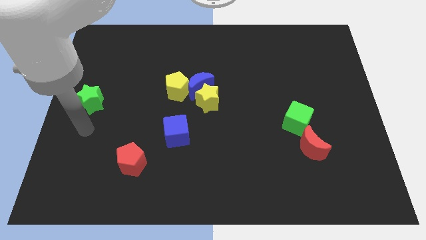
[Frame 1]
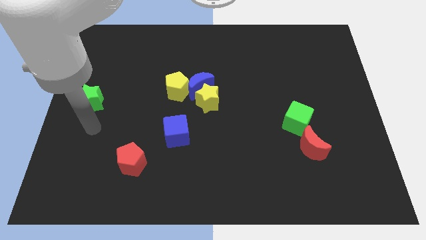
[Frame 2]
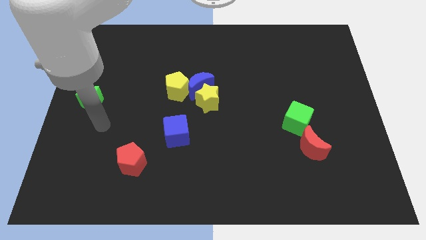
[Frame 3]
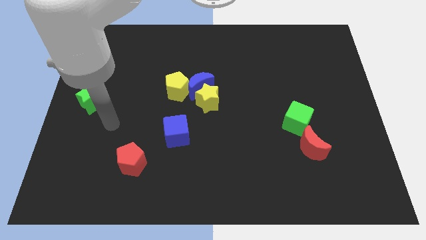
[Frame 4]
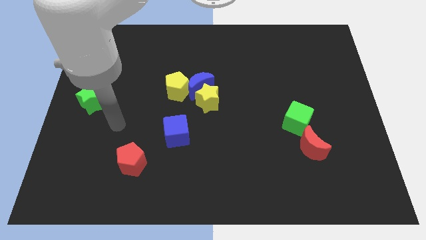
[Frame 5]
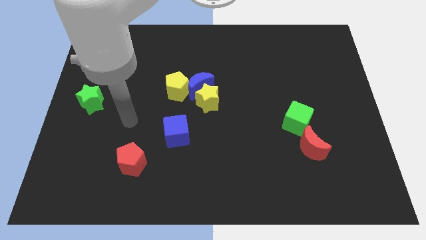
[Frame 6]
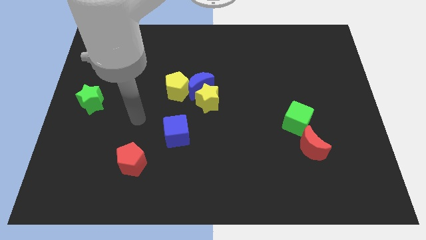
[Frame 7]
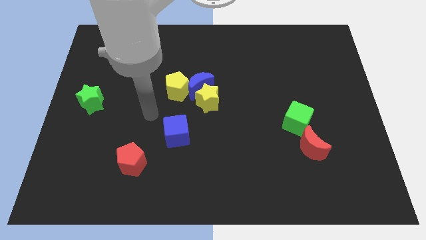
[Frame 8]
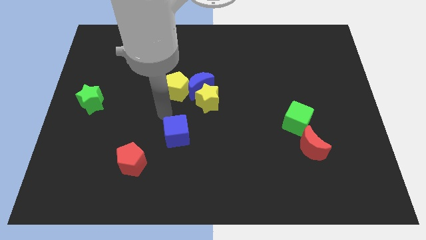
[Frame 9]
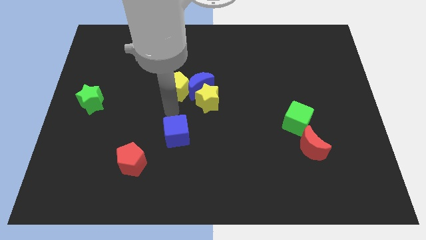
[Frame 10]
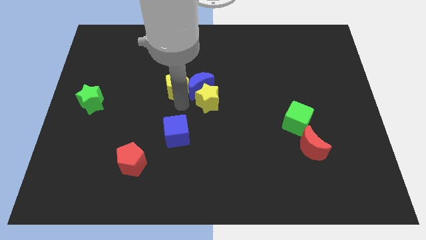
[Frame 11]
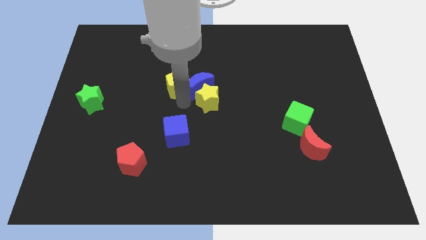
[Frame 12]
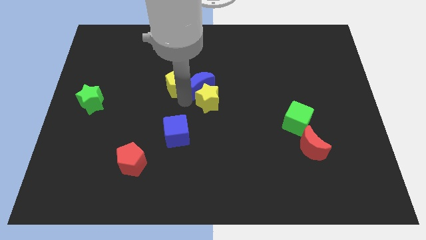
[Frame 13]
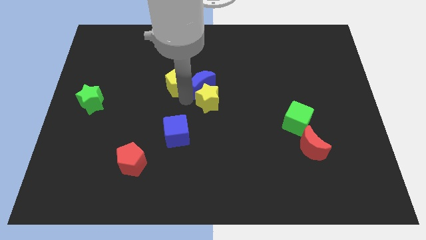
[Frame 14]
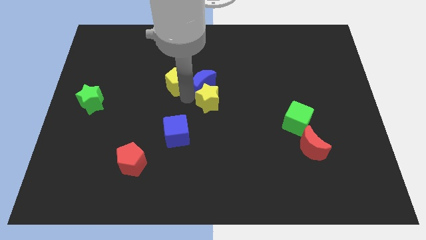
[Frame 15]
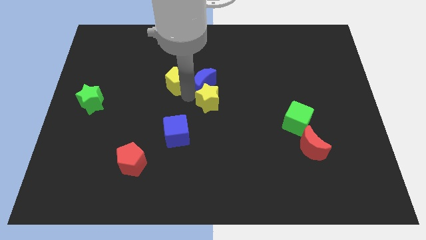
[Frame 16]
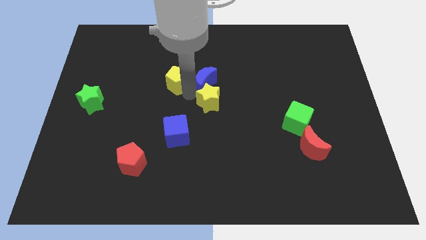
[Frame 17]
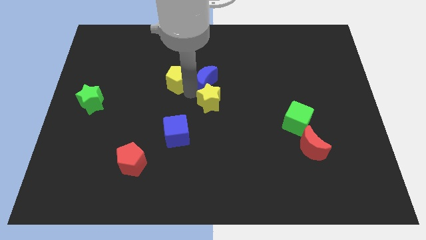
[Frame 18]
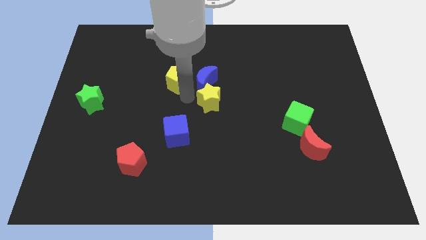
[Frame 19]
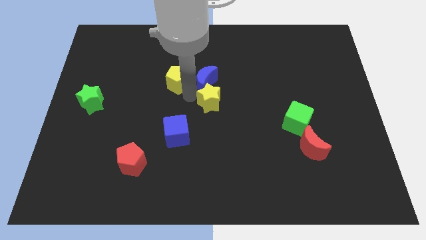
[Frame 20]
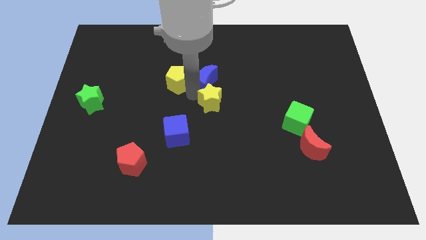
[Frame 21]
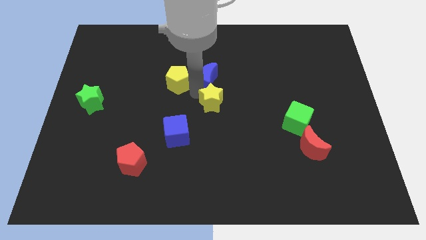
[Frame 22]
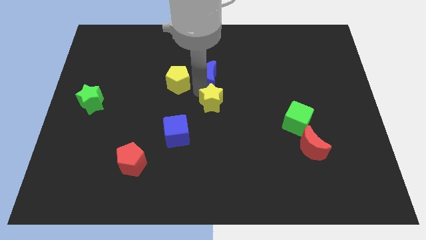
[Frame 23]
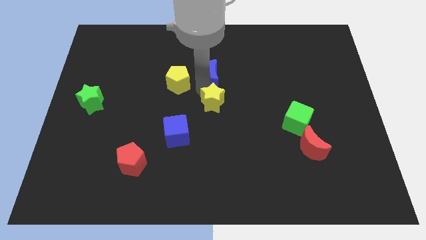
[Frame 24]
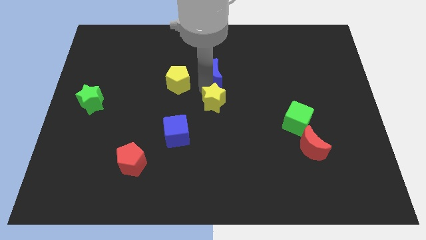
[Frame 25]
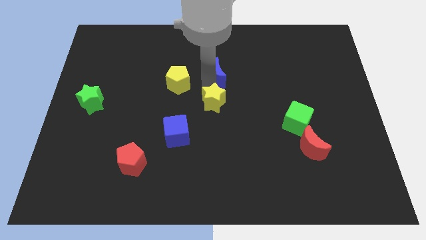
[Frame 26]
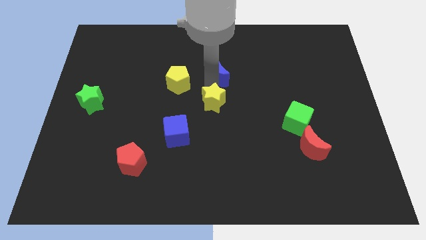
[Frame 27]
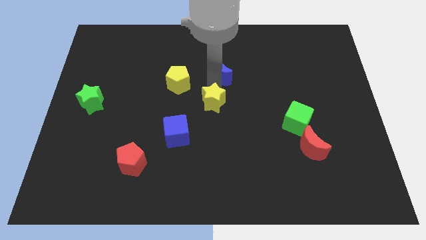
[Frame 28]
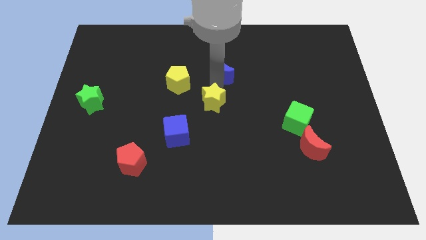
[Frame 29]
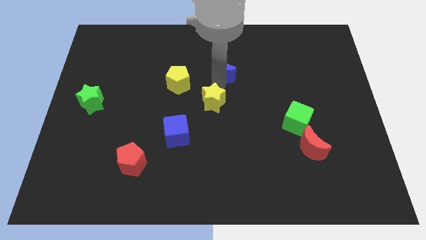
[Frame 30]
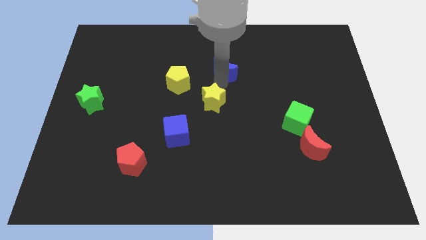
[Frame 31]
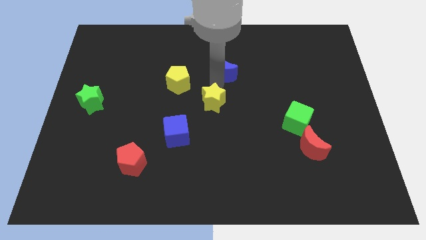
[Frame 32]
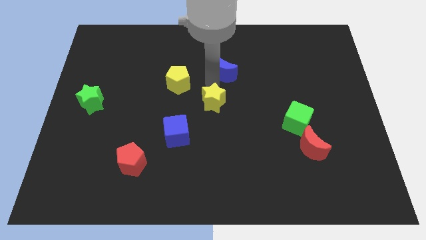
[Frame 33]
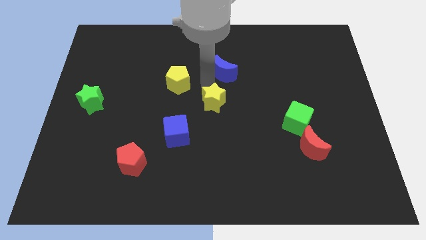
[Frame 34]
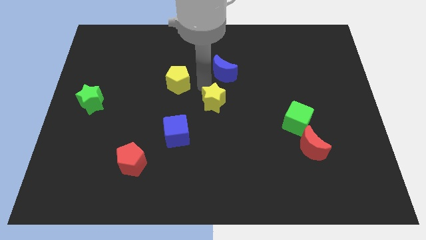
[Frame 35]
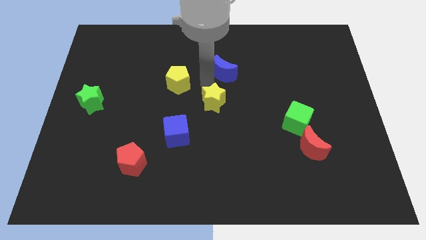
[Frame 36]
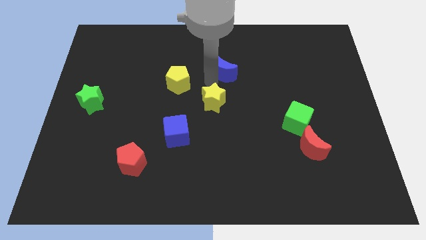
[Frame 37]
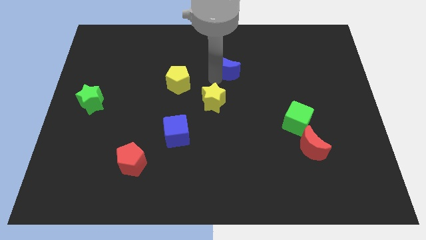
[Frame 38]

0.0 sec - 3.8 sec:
separate the blue moon from the yellow star and yellow pentagon

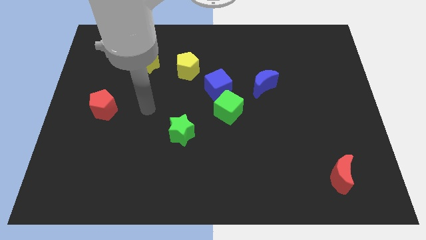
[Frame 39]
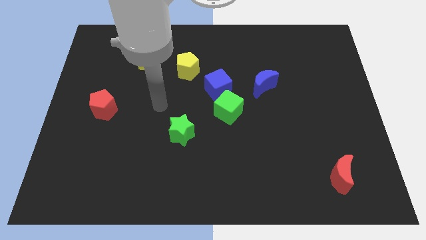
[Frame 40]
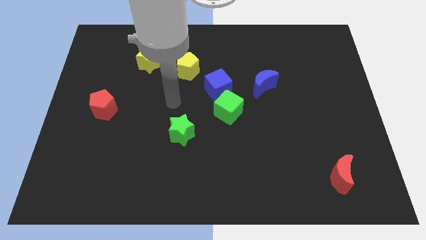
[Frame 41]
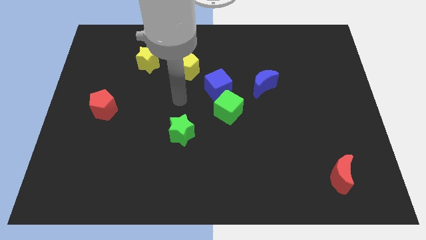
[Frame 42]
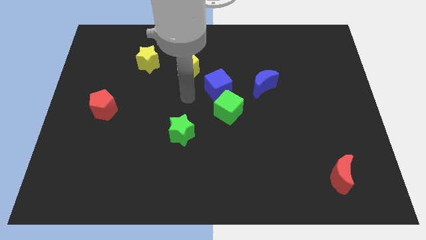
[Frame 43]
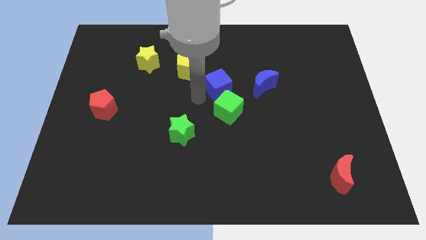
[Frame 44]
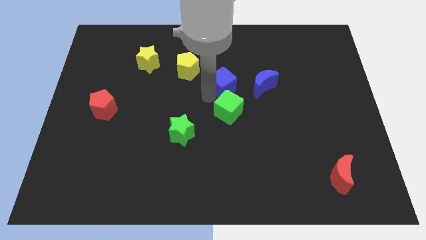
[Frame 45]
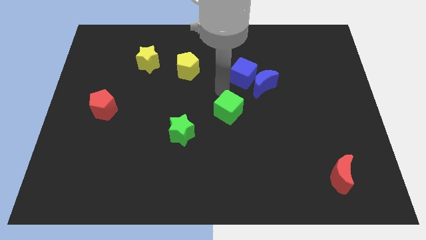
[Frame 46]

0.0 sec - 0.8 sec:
move the green cube away from the blue cube

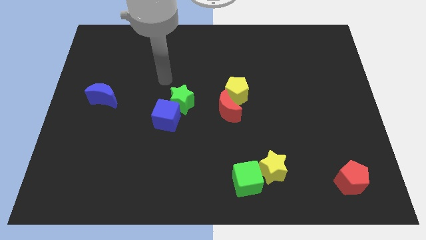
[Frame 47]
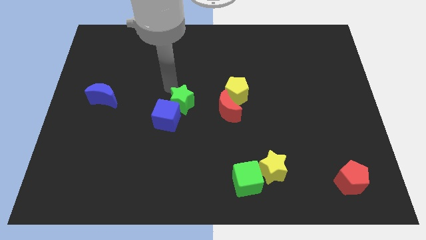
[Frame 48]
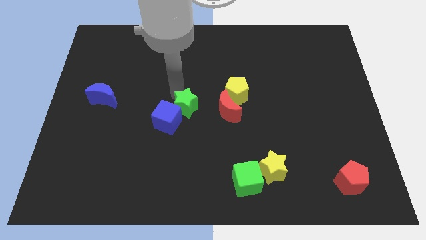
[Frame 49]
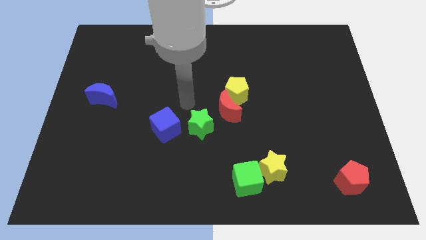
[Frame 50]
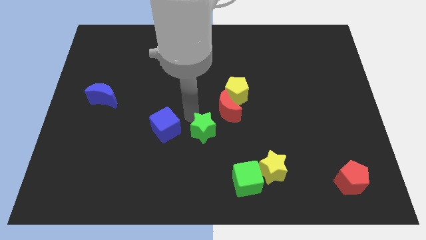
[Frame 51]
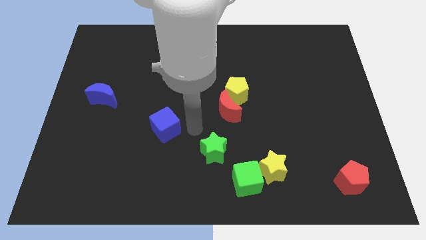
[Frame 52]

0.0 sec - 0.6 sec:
separate the blue cube from the green star

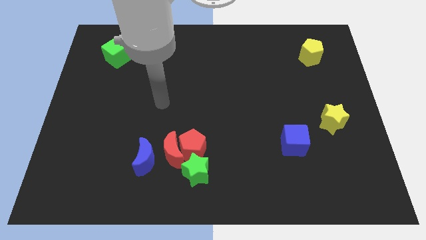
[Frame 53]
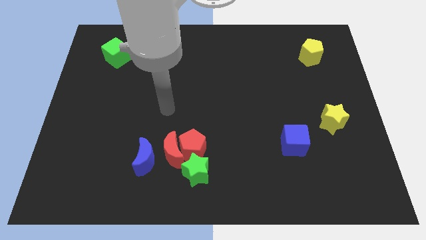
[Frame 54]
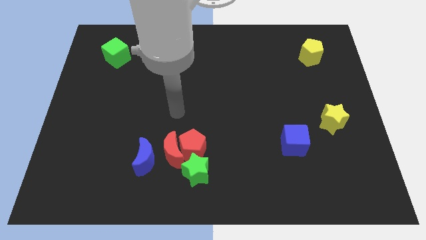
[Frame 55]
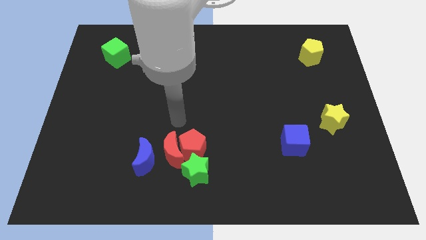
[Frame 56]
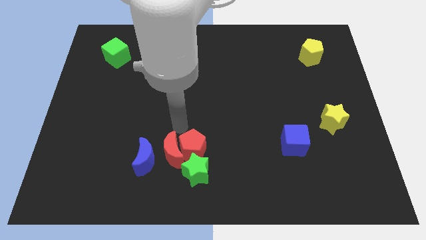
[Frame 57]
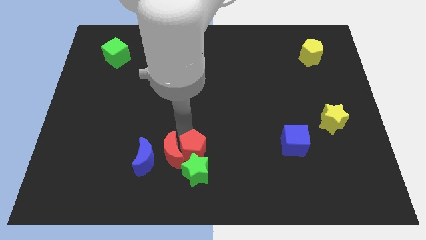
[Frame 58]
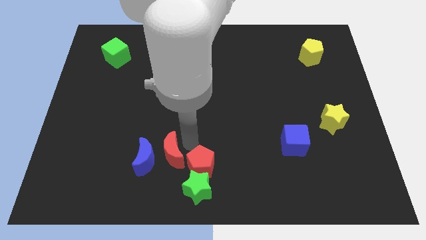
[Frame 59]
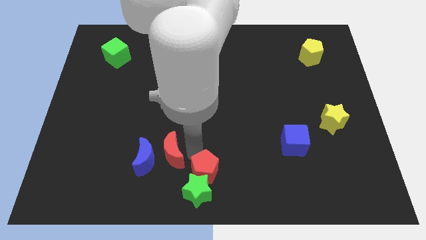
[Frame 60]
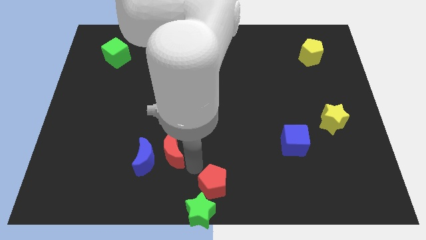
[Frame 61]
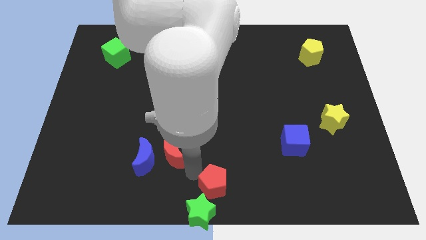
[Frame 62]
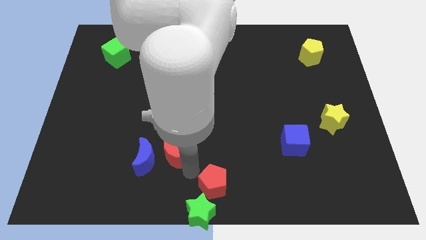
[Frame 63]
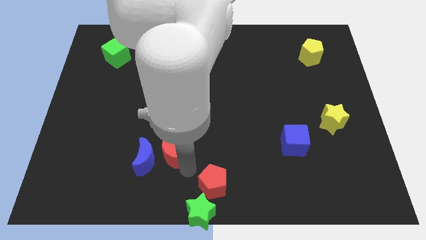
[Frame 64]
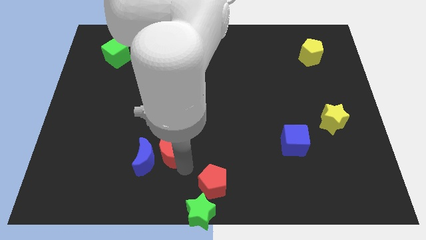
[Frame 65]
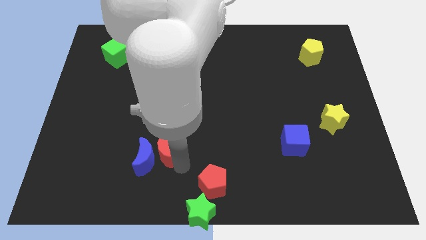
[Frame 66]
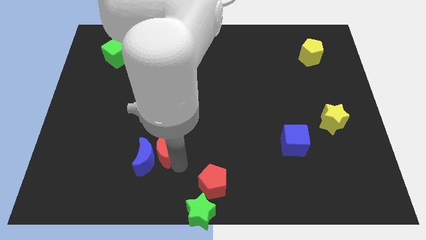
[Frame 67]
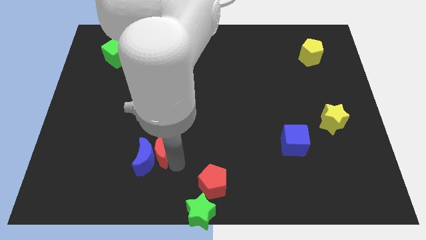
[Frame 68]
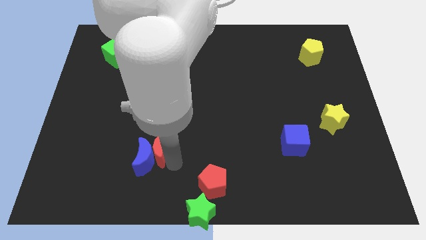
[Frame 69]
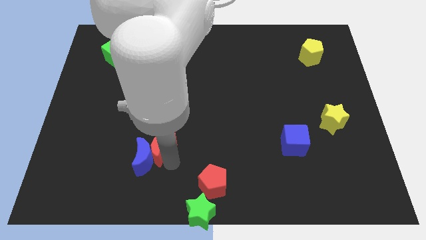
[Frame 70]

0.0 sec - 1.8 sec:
separate the red moon from the group of blocks

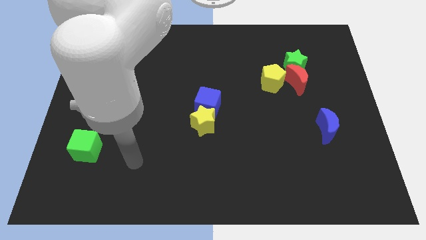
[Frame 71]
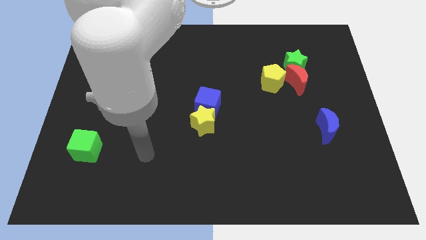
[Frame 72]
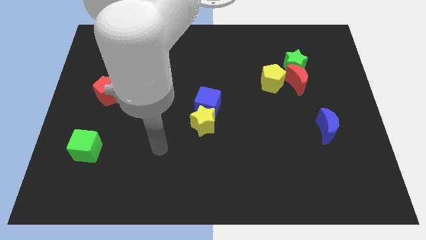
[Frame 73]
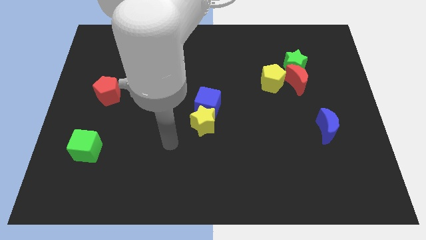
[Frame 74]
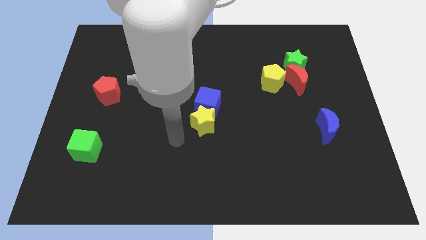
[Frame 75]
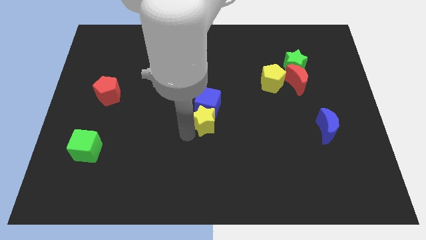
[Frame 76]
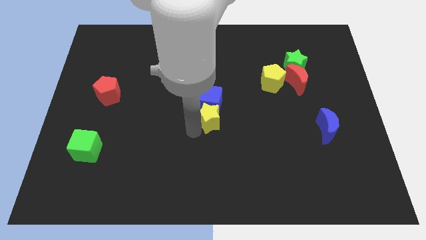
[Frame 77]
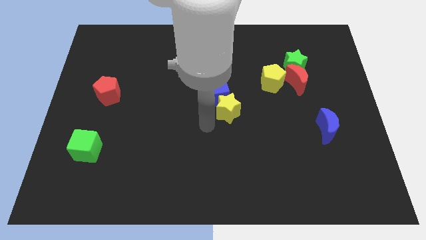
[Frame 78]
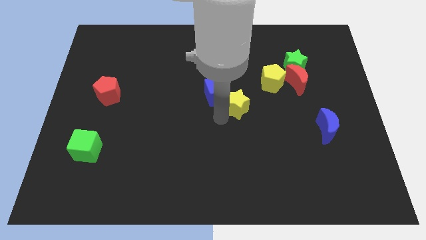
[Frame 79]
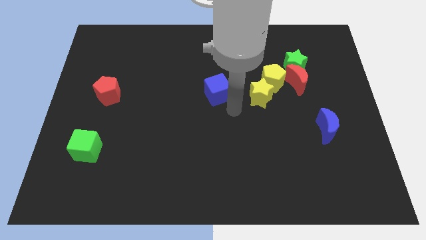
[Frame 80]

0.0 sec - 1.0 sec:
separate the blue cube from the yellow star

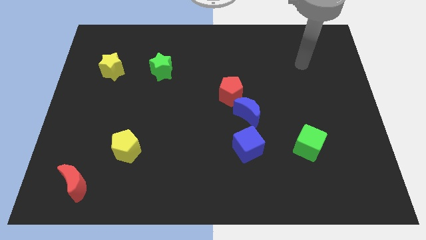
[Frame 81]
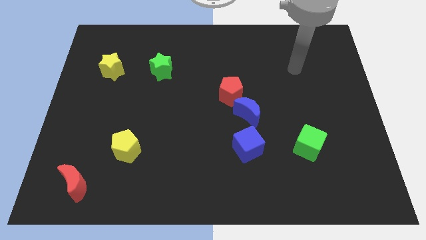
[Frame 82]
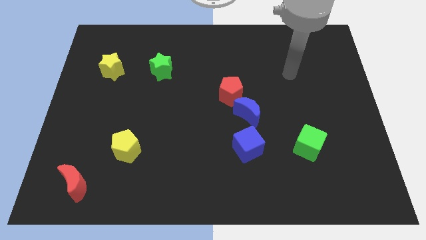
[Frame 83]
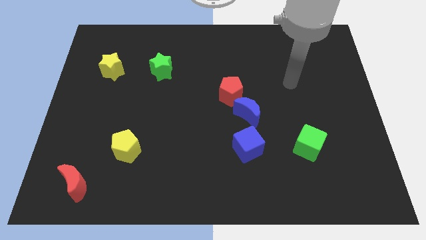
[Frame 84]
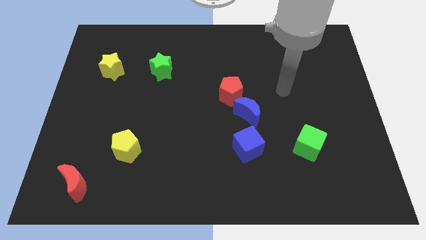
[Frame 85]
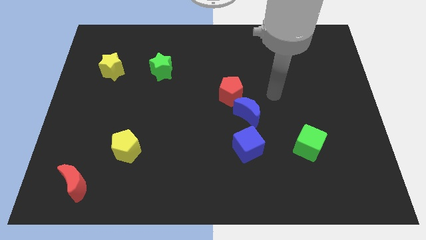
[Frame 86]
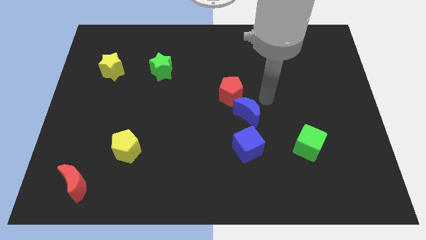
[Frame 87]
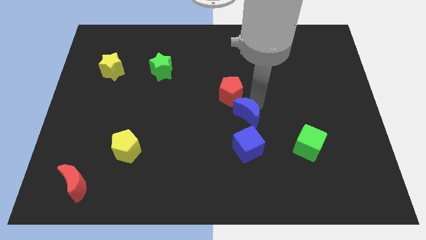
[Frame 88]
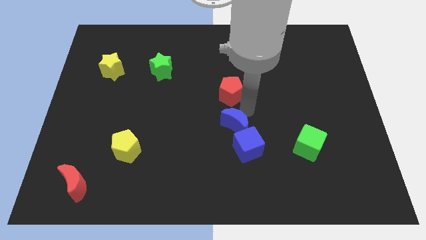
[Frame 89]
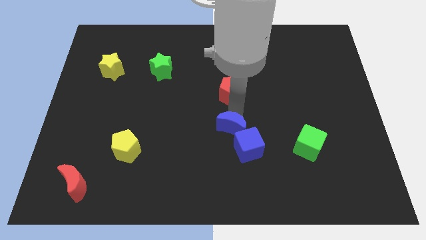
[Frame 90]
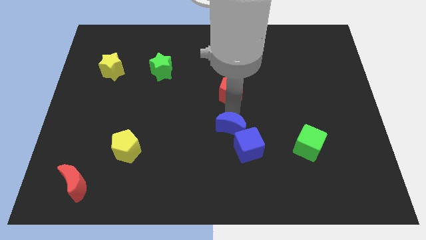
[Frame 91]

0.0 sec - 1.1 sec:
move the red pentagon away from the blue moon

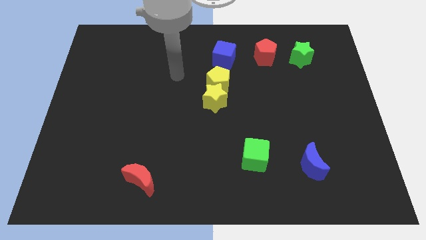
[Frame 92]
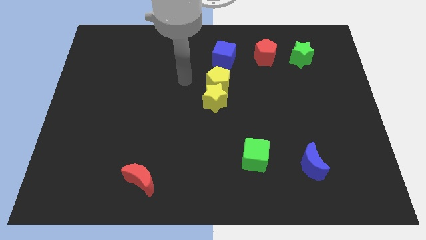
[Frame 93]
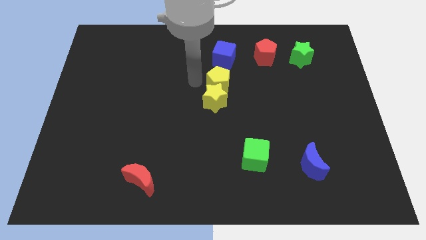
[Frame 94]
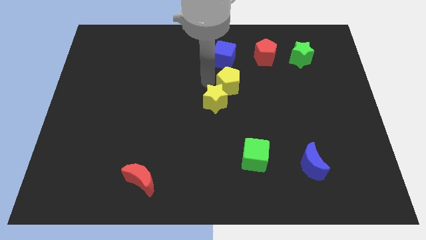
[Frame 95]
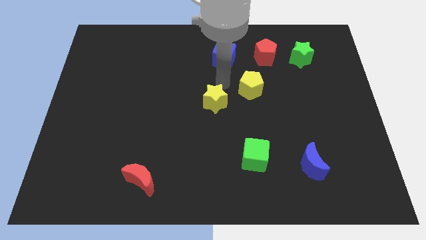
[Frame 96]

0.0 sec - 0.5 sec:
pull the yellow star apart from the yellow pentagon
